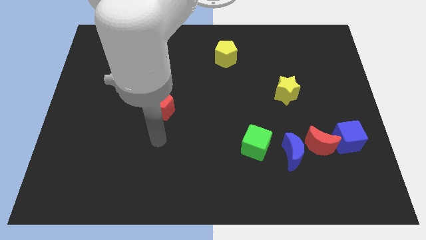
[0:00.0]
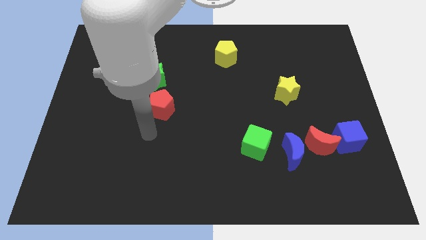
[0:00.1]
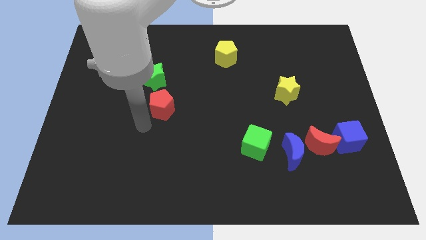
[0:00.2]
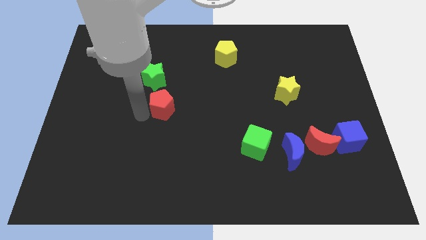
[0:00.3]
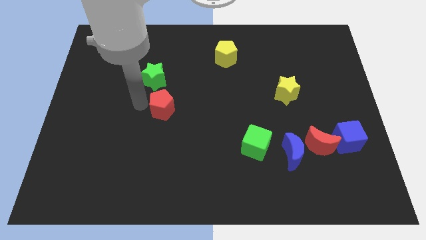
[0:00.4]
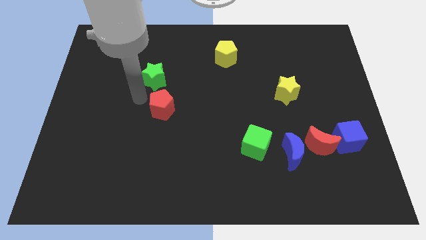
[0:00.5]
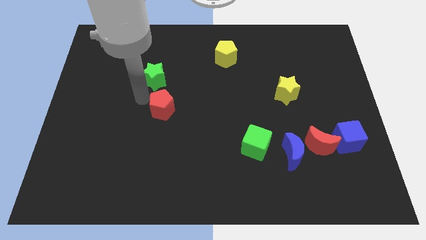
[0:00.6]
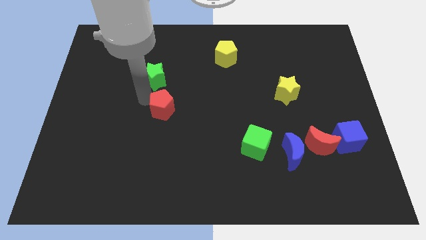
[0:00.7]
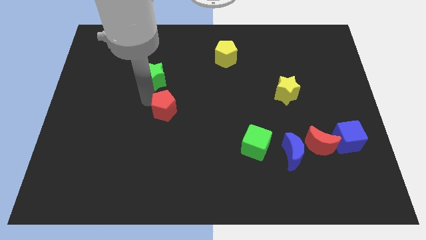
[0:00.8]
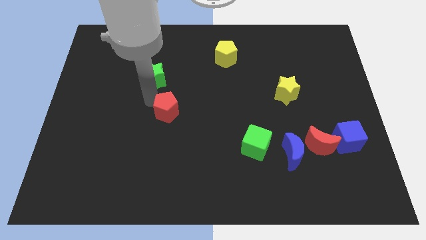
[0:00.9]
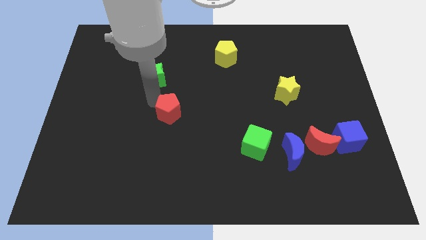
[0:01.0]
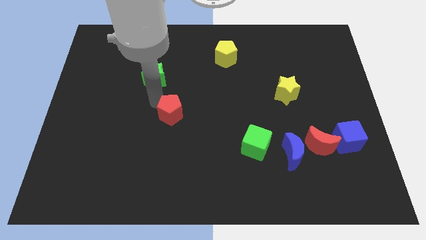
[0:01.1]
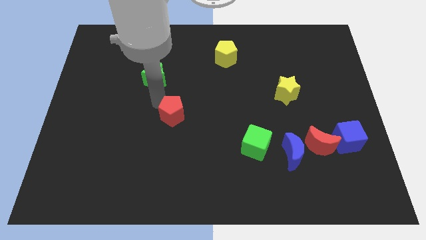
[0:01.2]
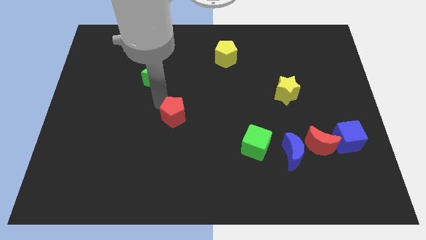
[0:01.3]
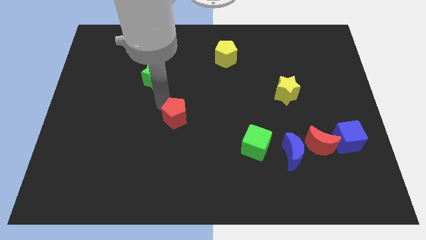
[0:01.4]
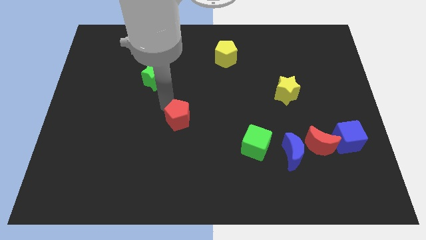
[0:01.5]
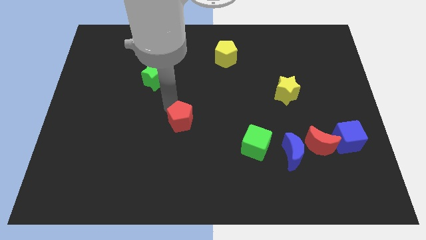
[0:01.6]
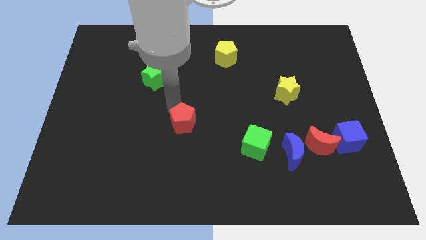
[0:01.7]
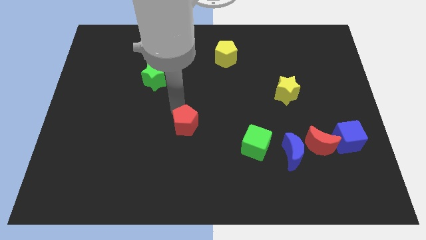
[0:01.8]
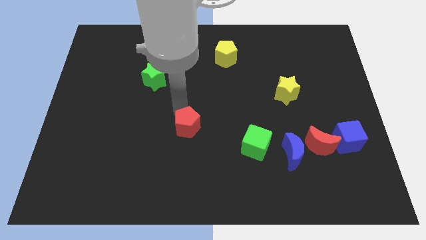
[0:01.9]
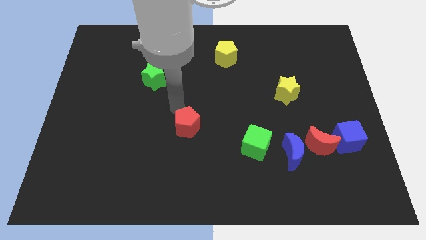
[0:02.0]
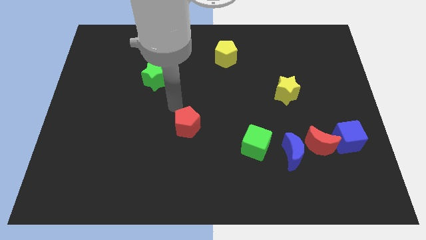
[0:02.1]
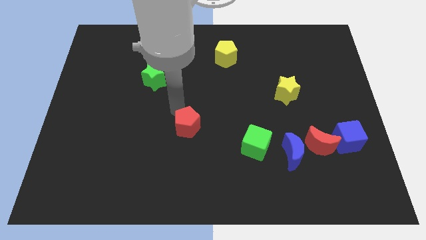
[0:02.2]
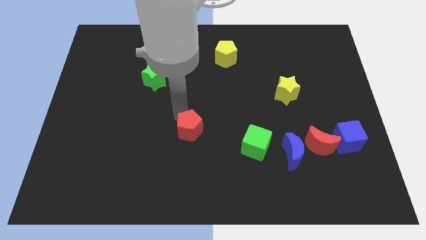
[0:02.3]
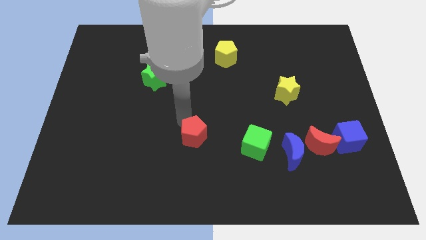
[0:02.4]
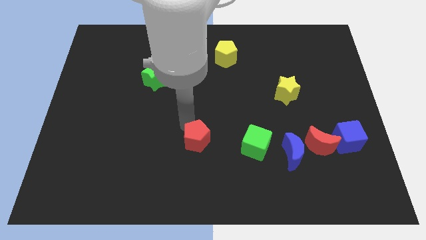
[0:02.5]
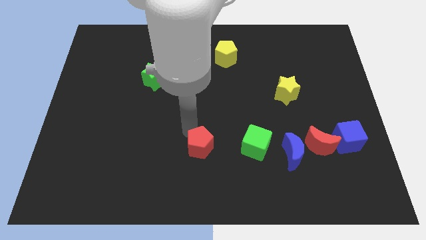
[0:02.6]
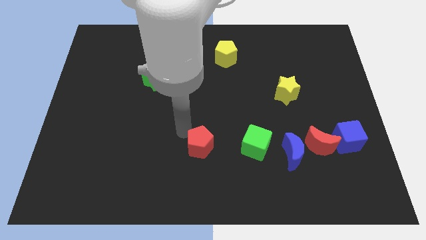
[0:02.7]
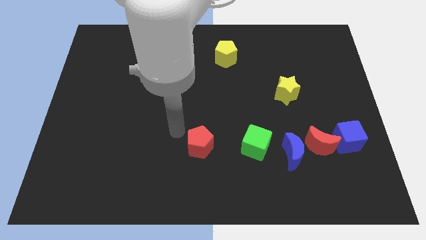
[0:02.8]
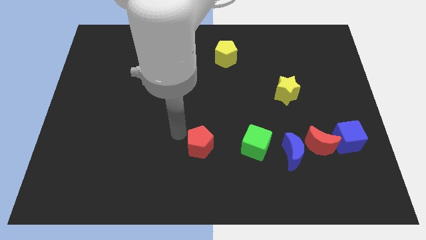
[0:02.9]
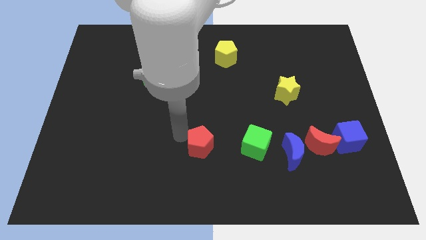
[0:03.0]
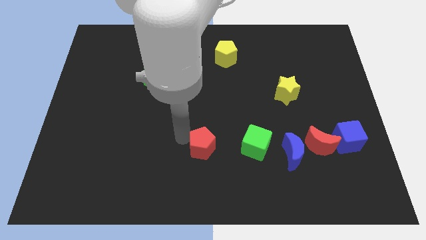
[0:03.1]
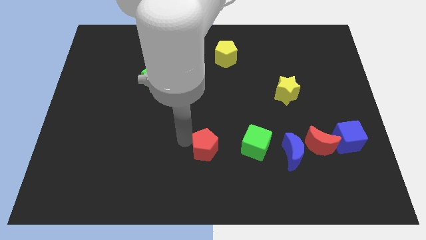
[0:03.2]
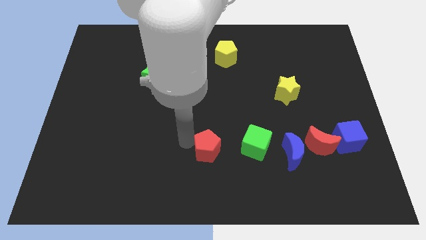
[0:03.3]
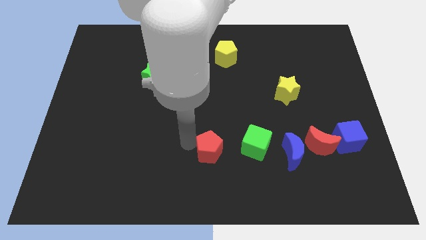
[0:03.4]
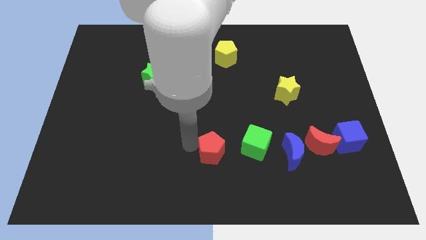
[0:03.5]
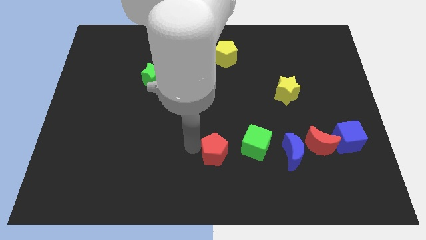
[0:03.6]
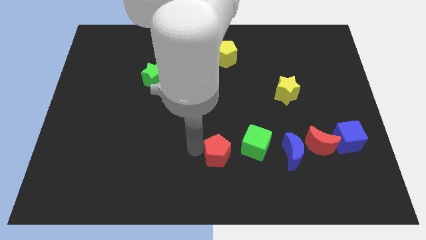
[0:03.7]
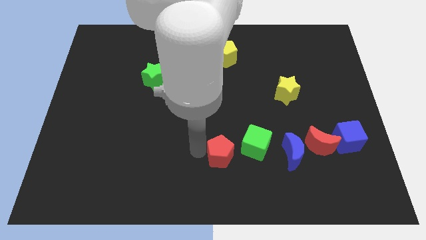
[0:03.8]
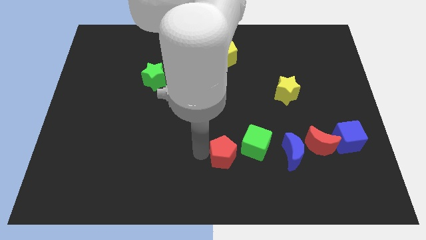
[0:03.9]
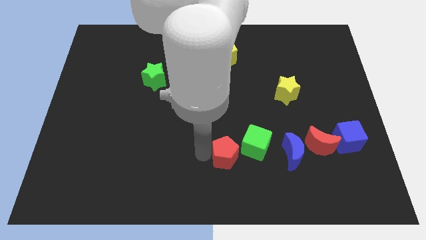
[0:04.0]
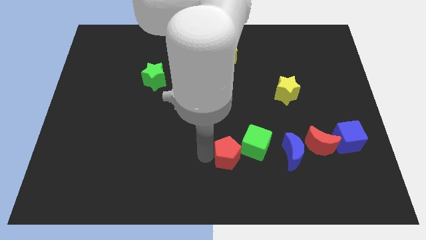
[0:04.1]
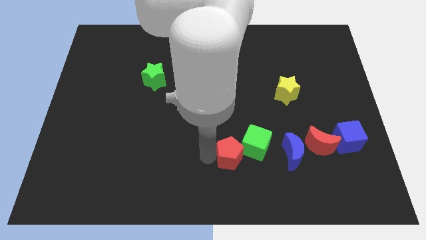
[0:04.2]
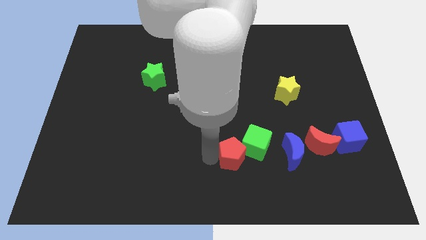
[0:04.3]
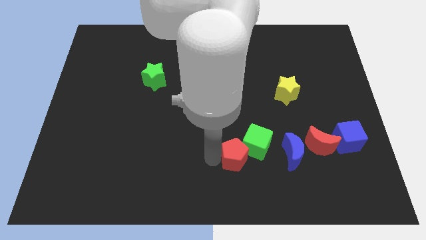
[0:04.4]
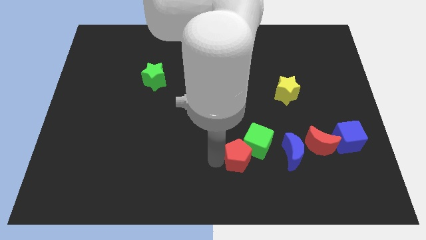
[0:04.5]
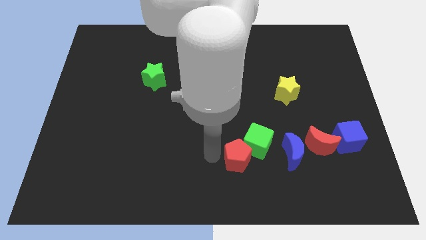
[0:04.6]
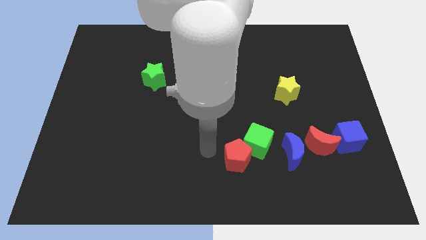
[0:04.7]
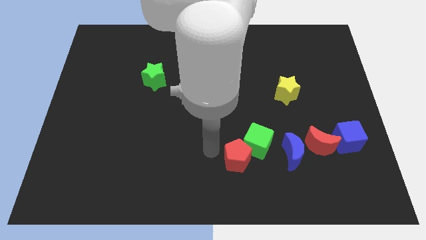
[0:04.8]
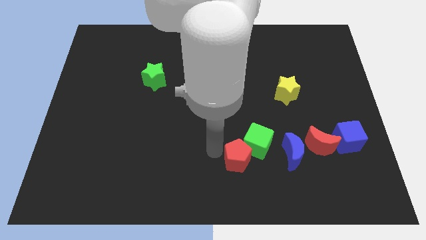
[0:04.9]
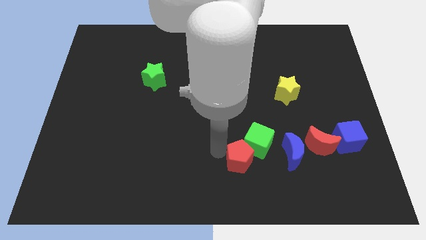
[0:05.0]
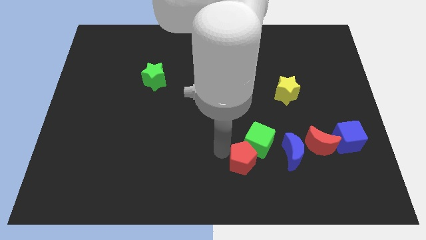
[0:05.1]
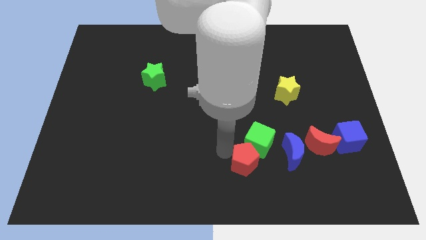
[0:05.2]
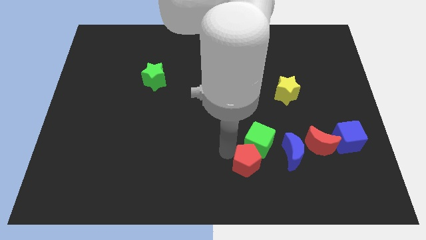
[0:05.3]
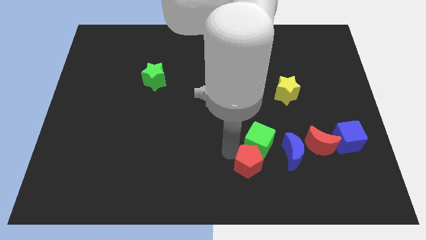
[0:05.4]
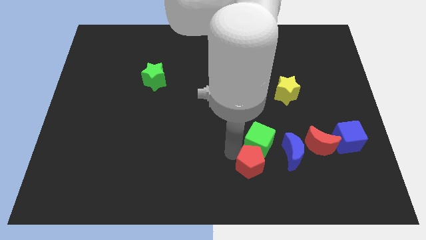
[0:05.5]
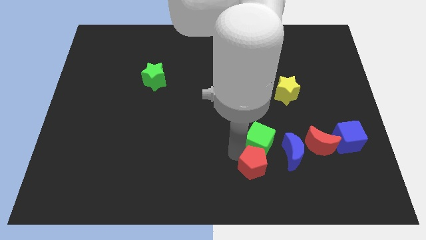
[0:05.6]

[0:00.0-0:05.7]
put the red pentagon to the bottom right side of the green cube

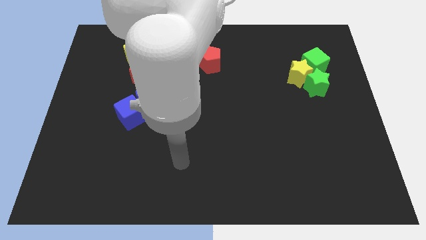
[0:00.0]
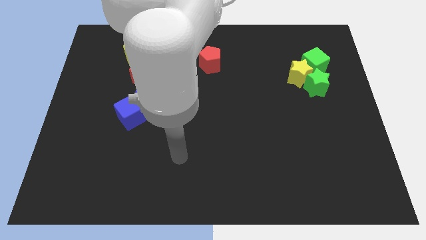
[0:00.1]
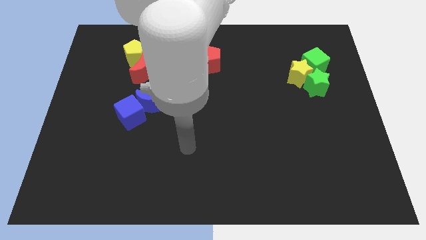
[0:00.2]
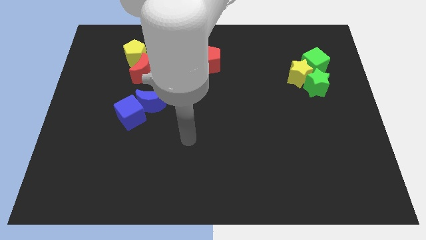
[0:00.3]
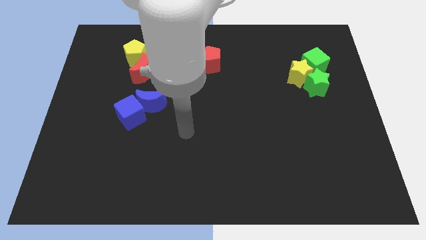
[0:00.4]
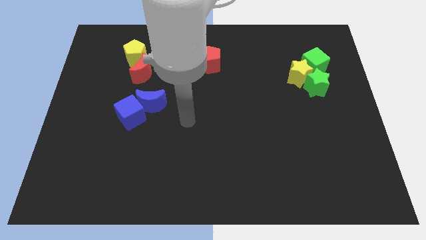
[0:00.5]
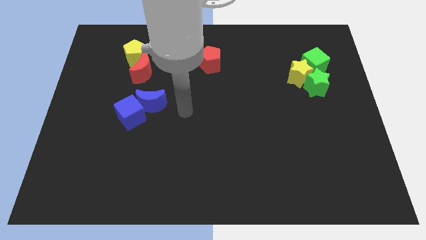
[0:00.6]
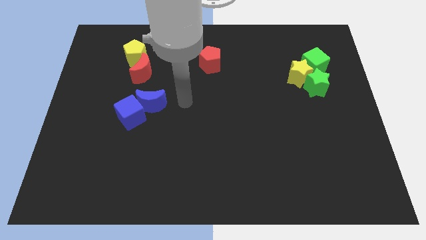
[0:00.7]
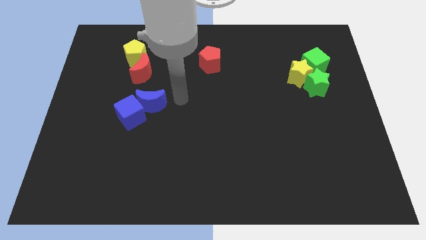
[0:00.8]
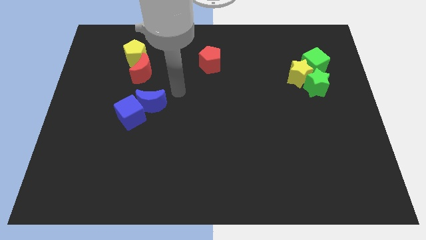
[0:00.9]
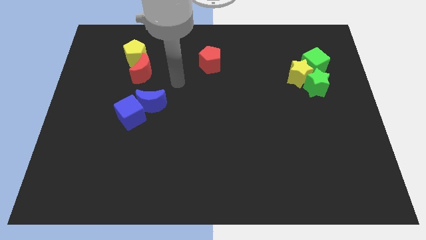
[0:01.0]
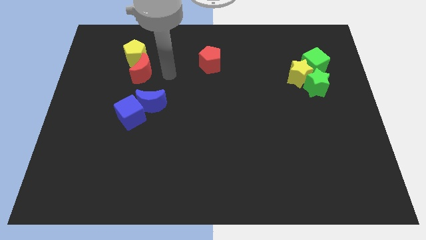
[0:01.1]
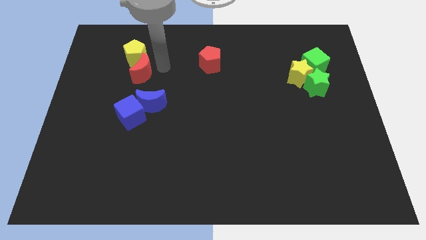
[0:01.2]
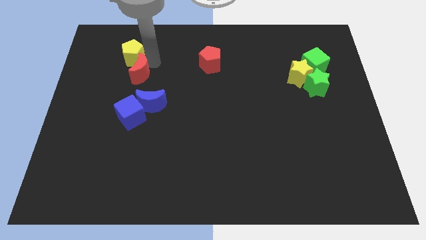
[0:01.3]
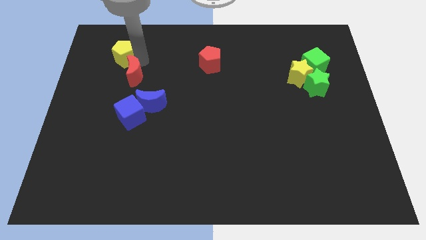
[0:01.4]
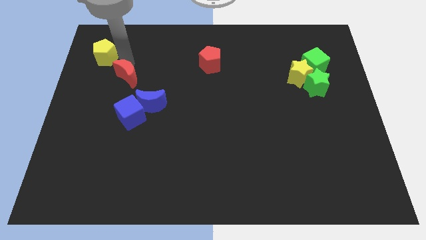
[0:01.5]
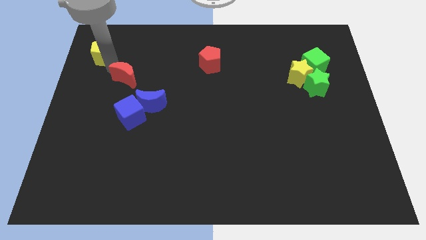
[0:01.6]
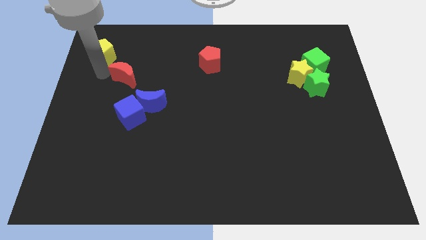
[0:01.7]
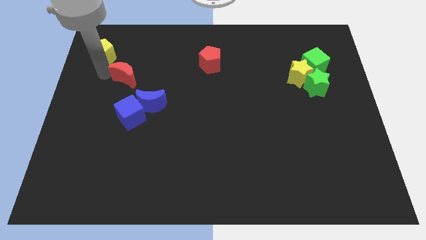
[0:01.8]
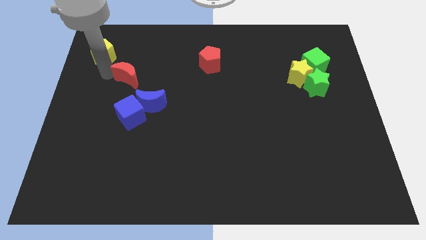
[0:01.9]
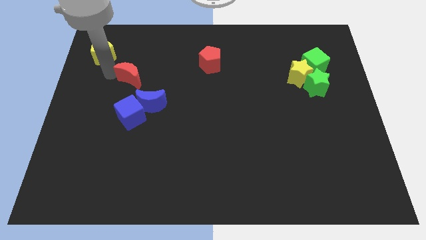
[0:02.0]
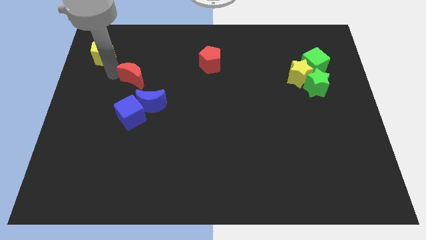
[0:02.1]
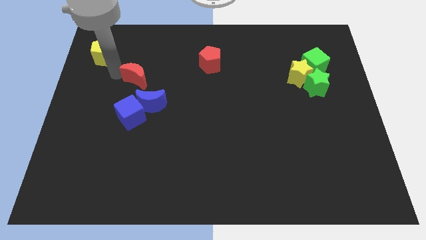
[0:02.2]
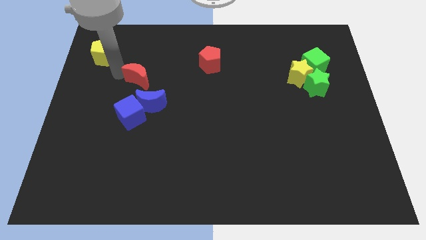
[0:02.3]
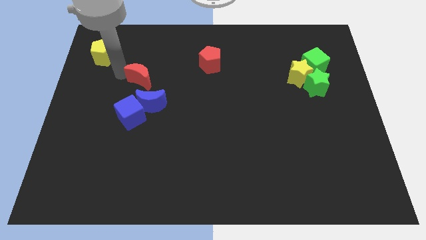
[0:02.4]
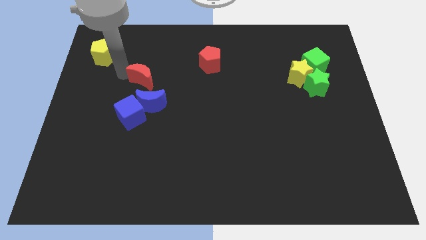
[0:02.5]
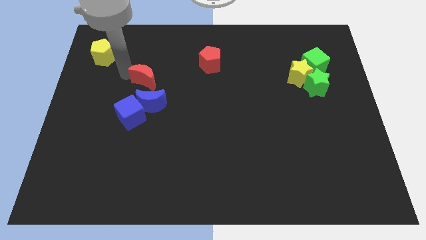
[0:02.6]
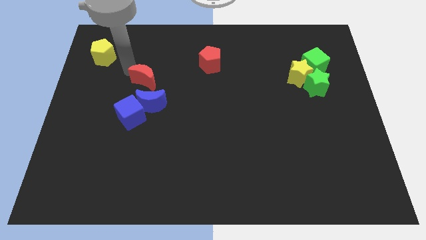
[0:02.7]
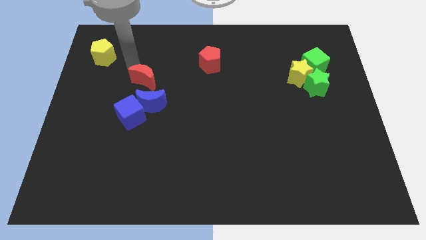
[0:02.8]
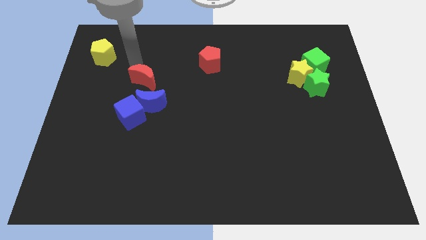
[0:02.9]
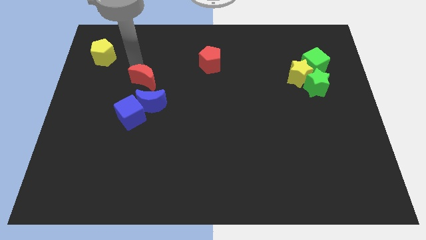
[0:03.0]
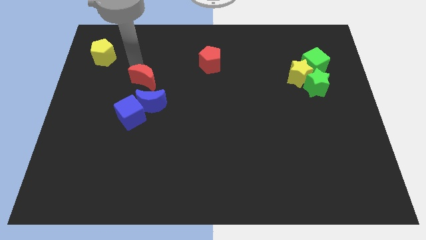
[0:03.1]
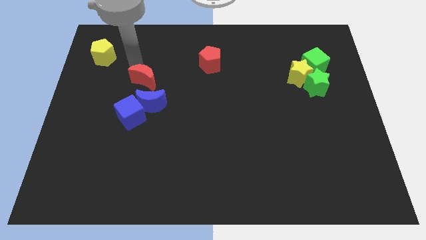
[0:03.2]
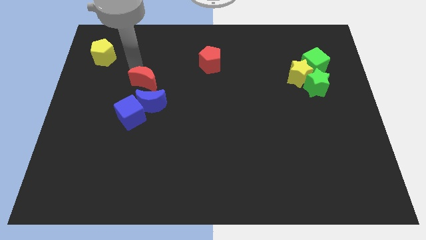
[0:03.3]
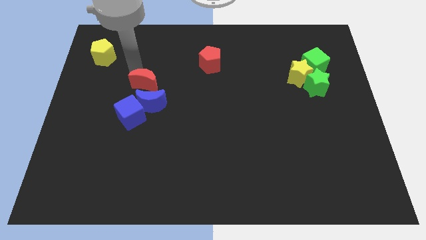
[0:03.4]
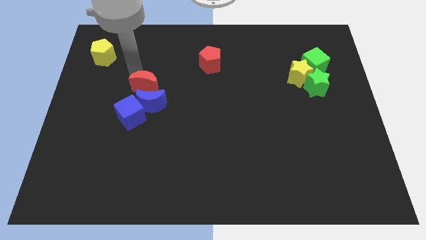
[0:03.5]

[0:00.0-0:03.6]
put the red moon to the top right of the blue cube
